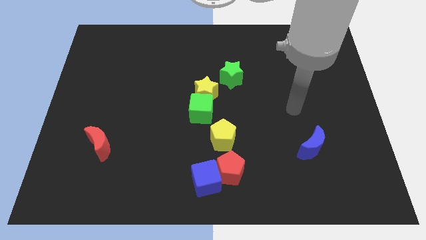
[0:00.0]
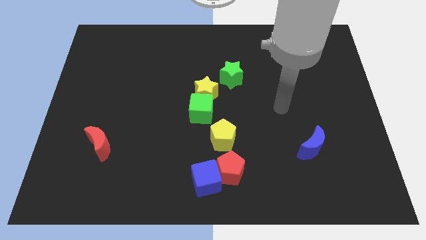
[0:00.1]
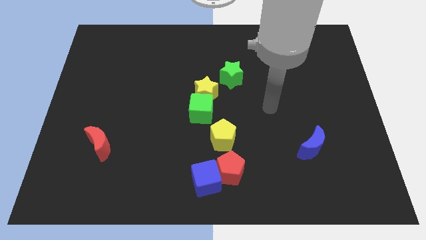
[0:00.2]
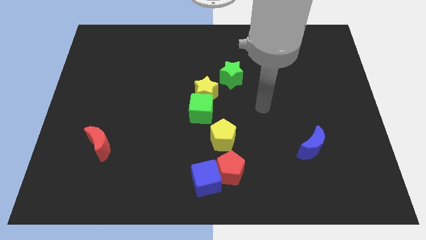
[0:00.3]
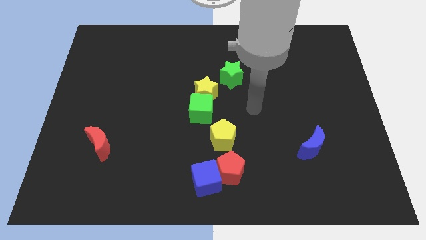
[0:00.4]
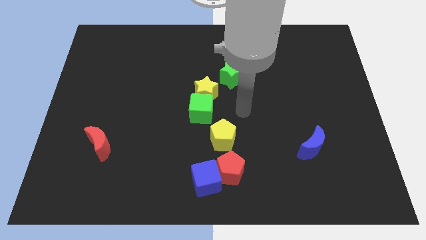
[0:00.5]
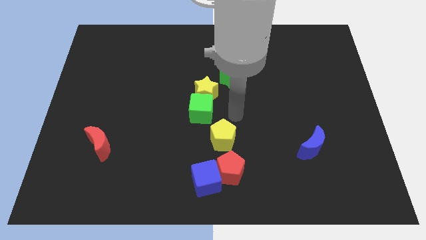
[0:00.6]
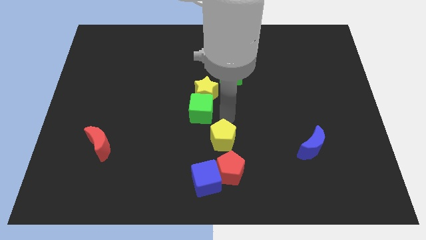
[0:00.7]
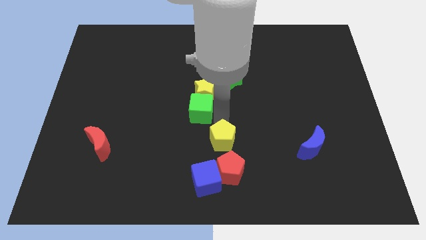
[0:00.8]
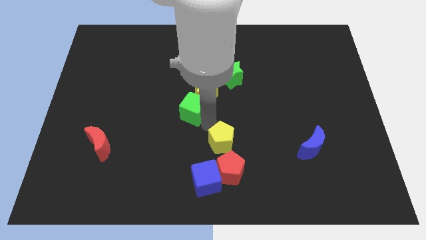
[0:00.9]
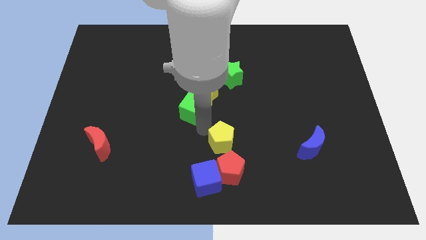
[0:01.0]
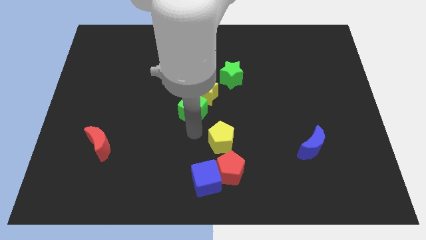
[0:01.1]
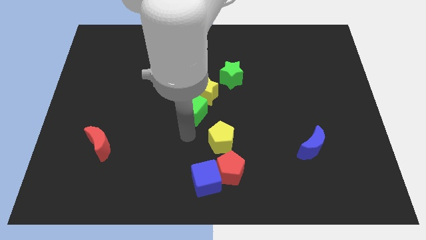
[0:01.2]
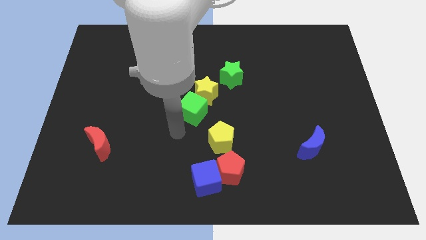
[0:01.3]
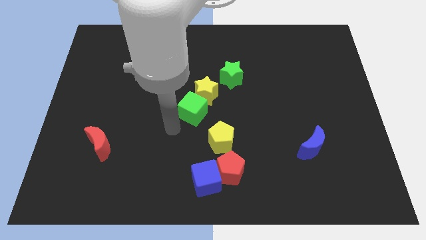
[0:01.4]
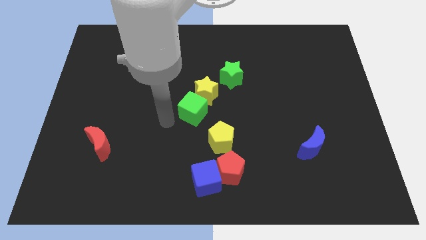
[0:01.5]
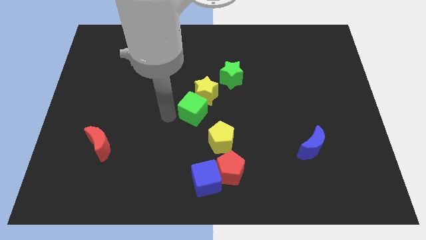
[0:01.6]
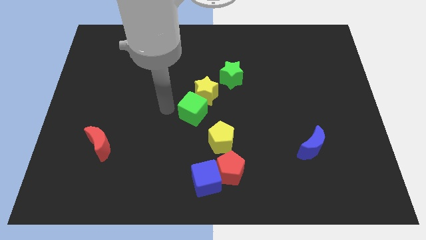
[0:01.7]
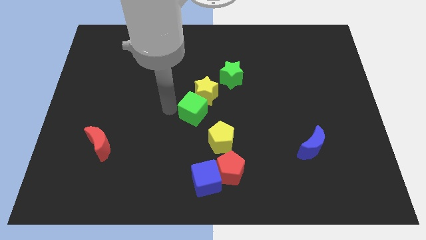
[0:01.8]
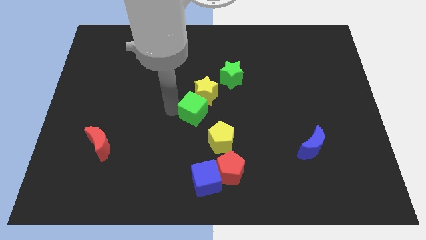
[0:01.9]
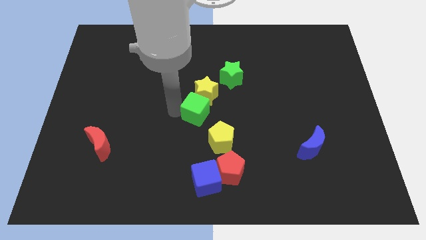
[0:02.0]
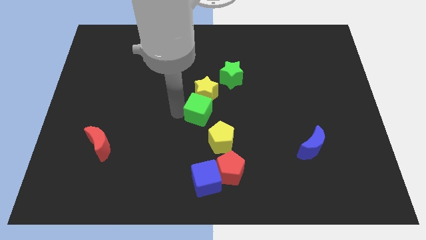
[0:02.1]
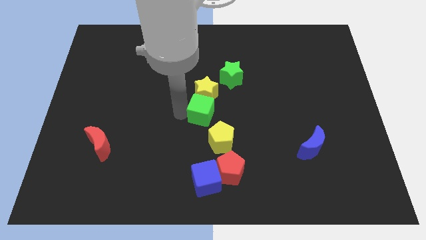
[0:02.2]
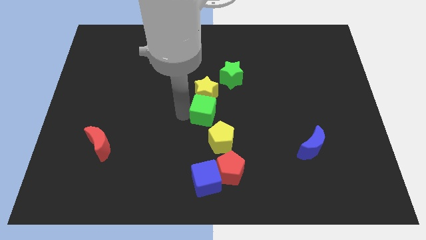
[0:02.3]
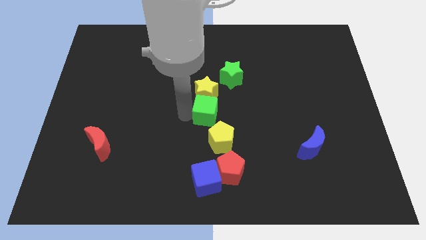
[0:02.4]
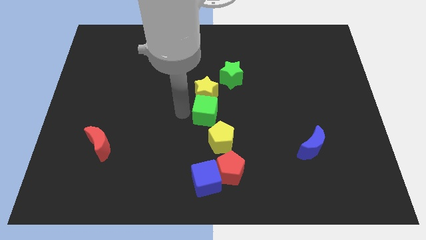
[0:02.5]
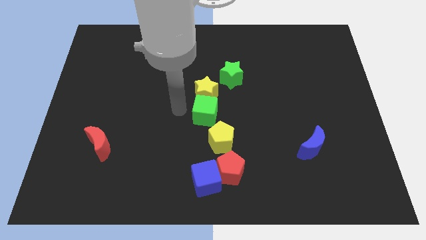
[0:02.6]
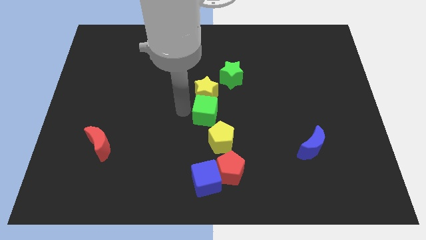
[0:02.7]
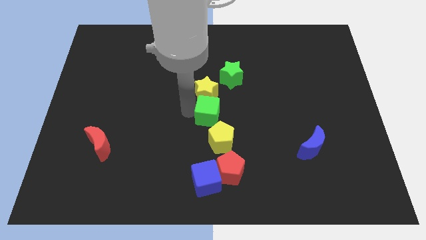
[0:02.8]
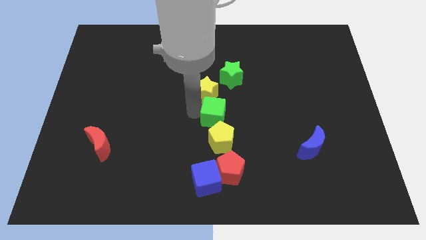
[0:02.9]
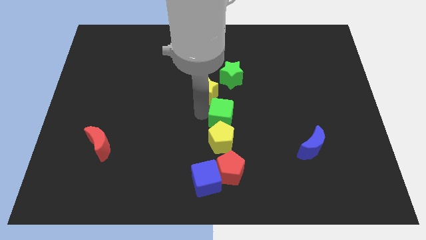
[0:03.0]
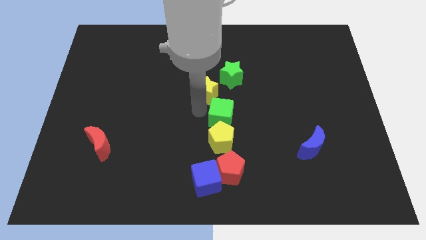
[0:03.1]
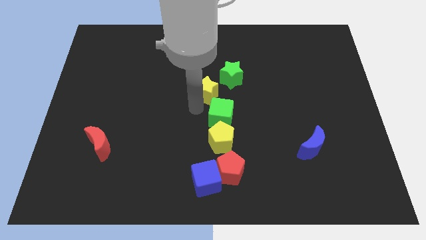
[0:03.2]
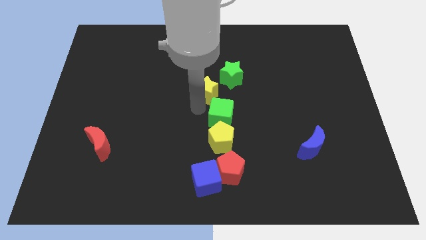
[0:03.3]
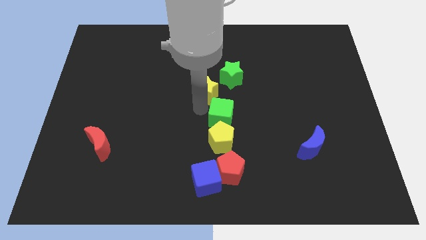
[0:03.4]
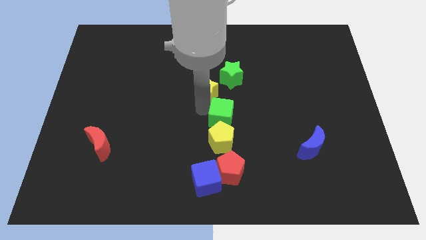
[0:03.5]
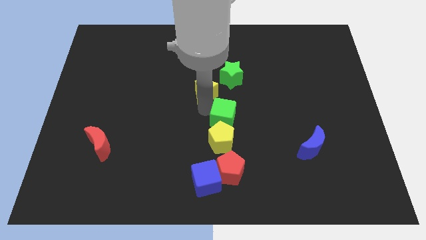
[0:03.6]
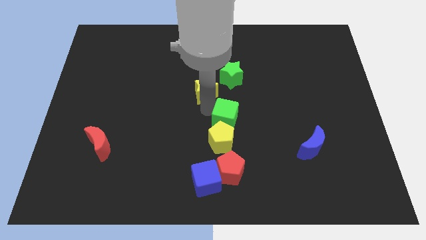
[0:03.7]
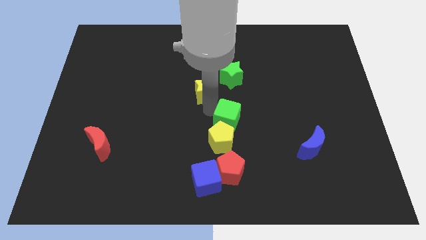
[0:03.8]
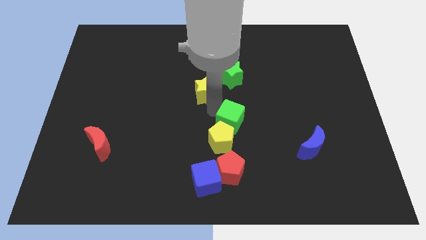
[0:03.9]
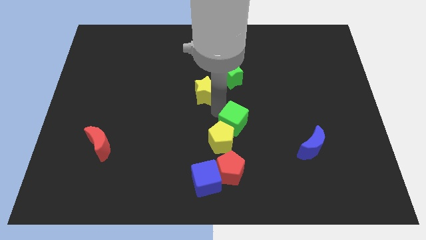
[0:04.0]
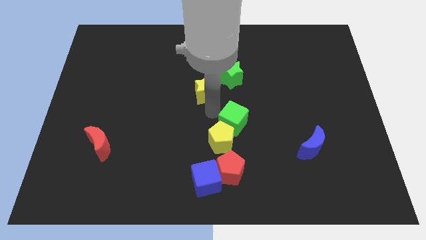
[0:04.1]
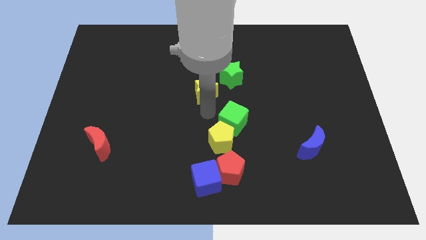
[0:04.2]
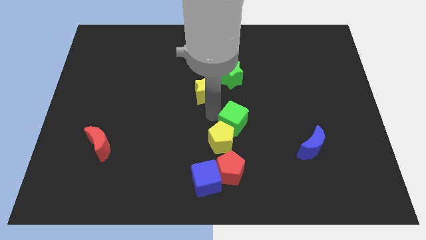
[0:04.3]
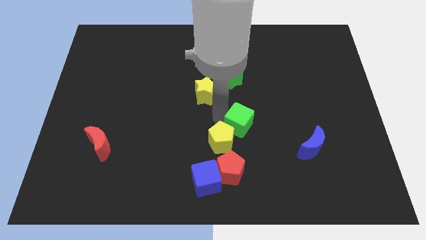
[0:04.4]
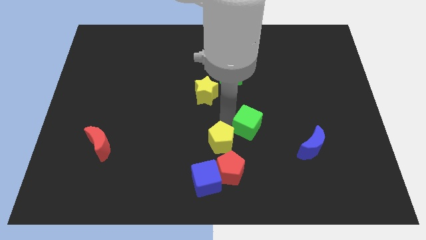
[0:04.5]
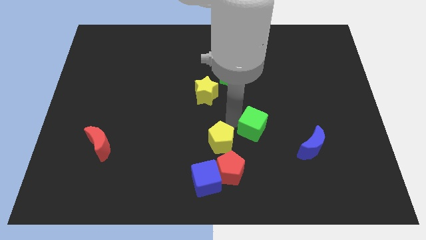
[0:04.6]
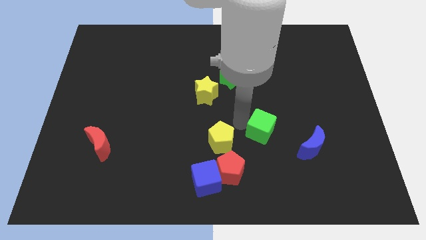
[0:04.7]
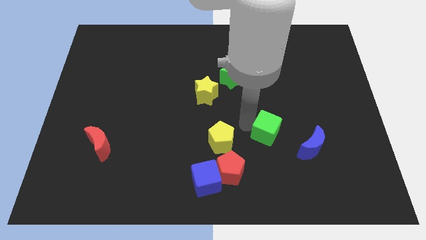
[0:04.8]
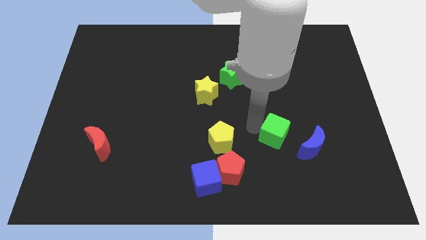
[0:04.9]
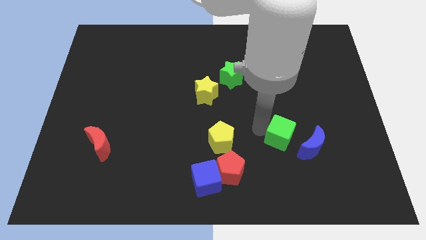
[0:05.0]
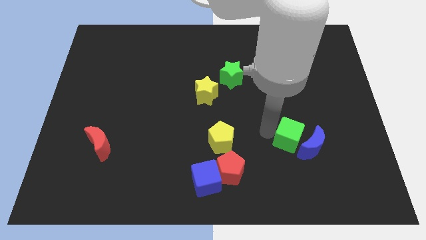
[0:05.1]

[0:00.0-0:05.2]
put the green cube to the blue moon

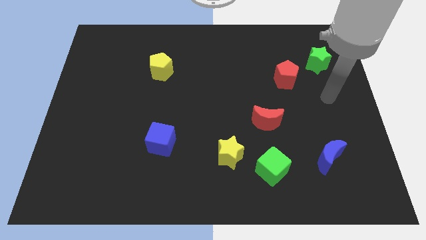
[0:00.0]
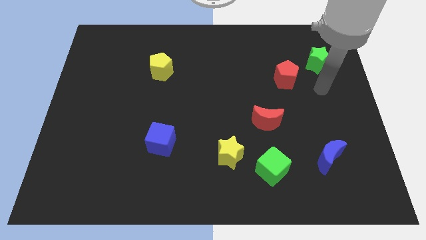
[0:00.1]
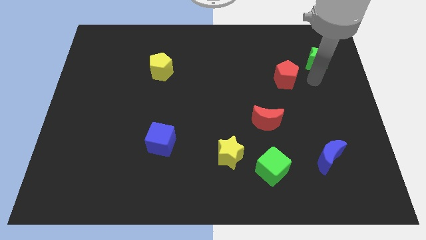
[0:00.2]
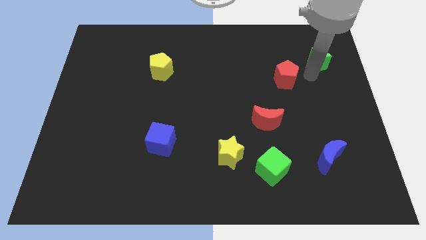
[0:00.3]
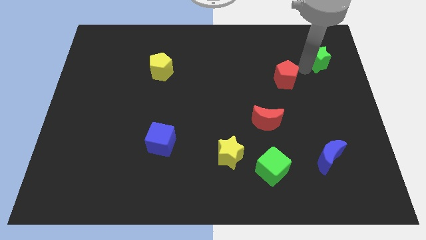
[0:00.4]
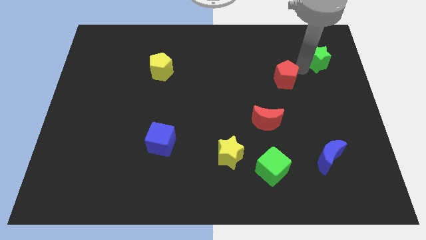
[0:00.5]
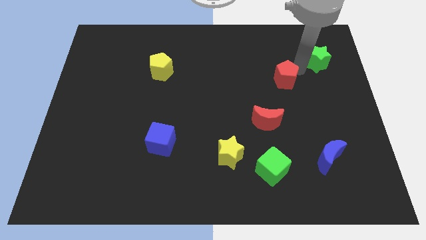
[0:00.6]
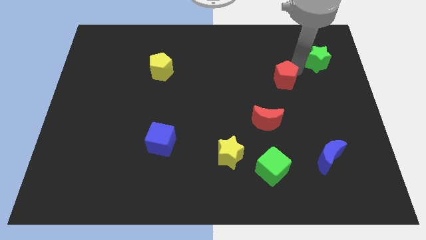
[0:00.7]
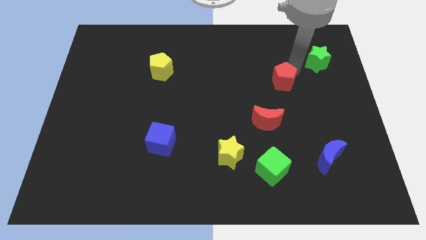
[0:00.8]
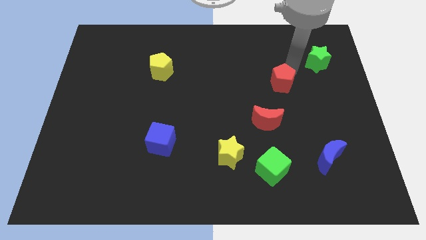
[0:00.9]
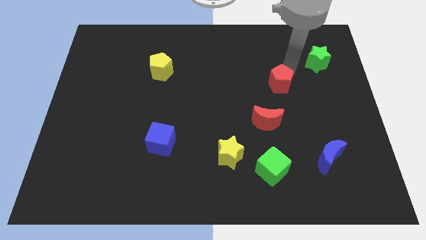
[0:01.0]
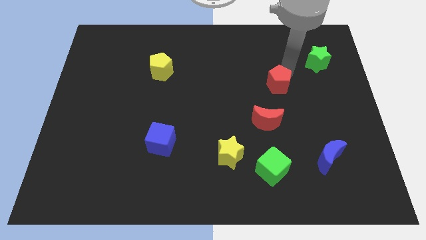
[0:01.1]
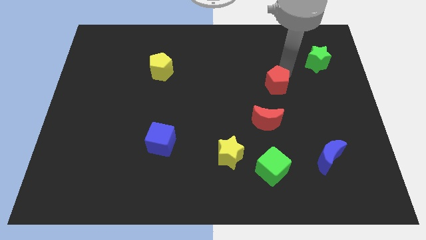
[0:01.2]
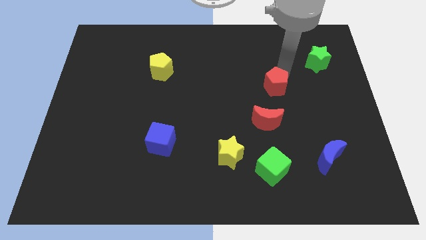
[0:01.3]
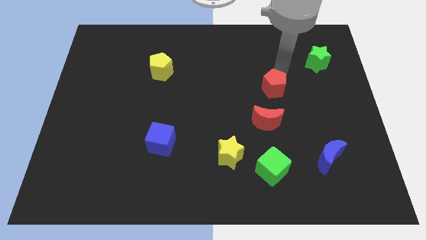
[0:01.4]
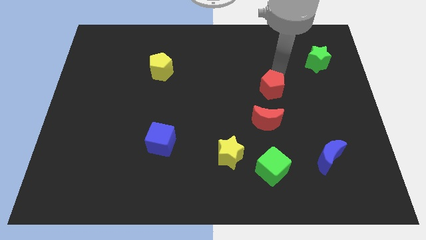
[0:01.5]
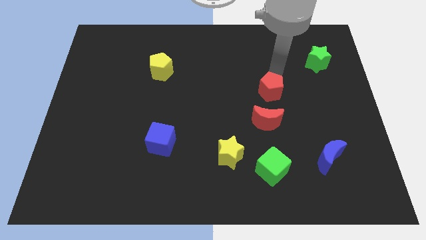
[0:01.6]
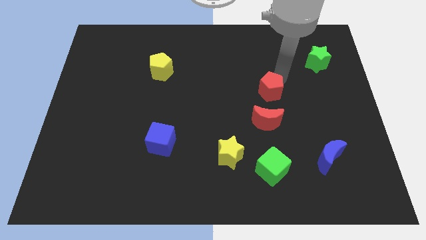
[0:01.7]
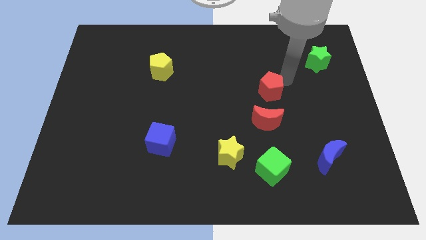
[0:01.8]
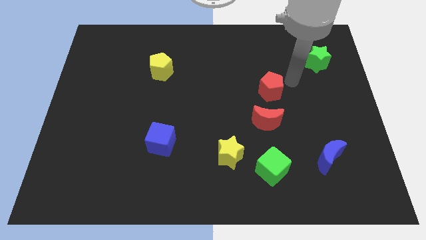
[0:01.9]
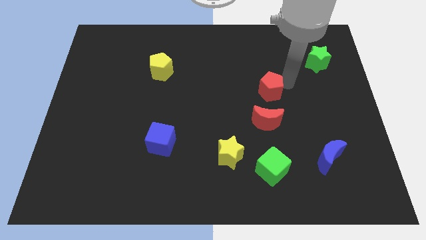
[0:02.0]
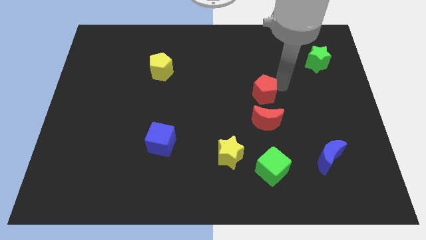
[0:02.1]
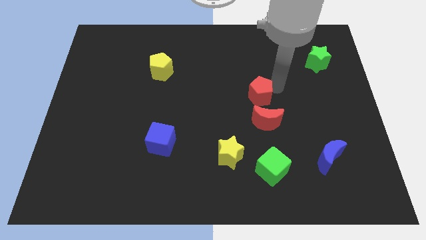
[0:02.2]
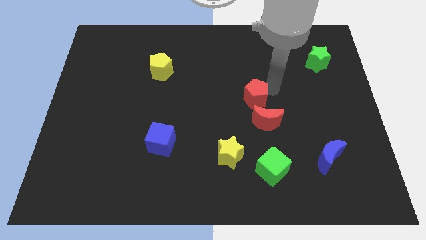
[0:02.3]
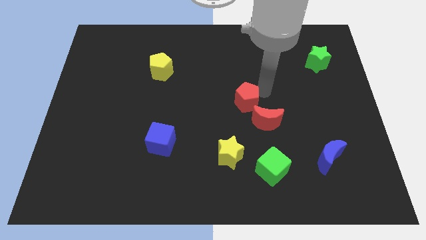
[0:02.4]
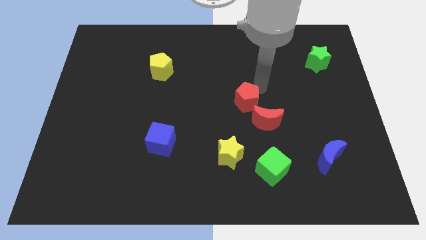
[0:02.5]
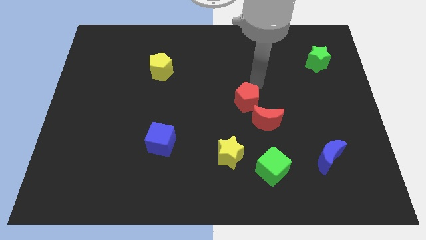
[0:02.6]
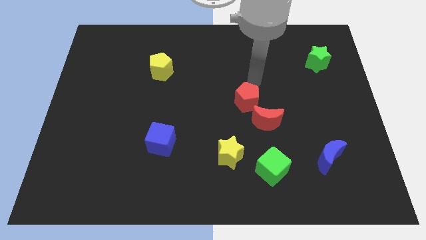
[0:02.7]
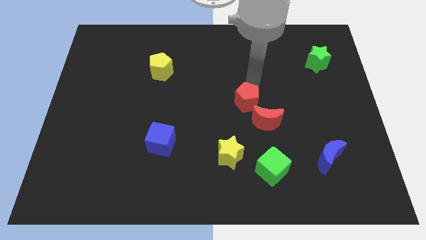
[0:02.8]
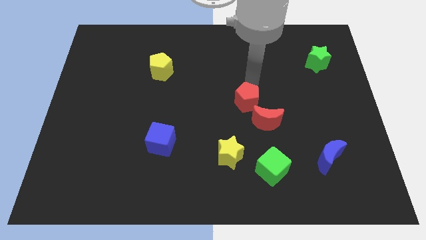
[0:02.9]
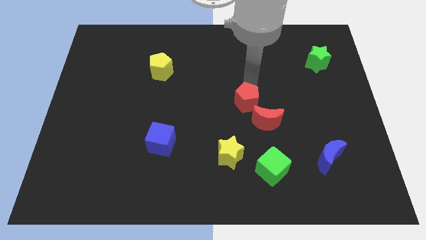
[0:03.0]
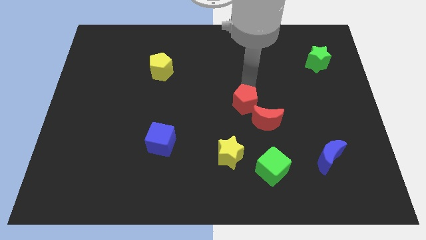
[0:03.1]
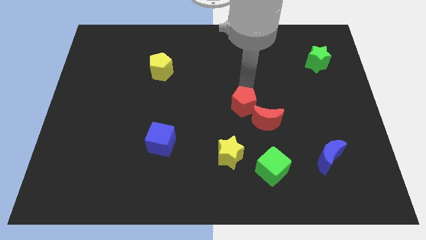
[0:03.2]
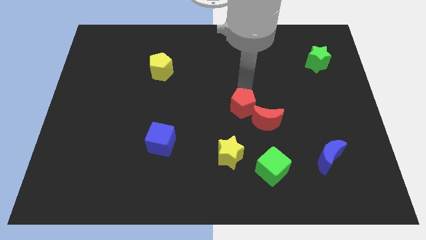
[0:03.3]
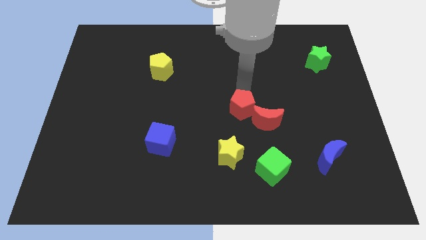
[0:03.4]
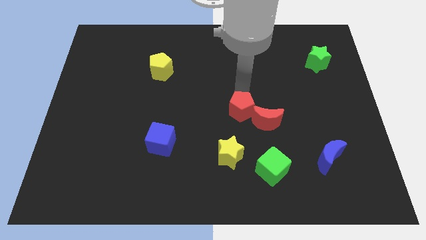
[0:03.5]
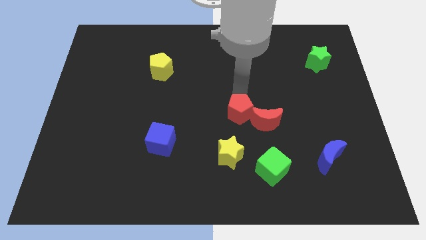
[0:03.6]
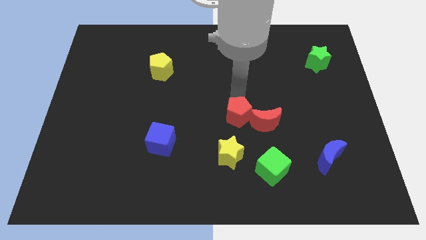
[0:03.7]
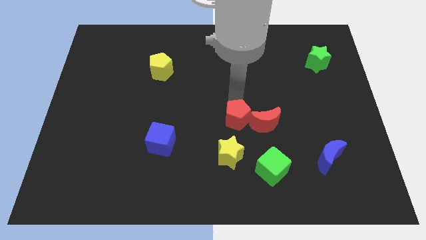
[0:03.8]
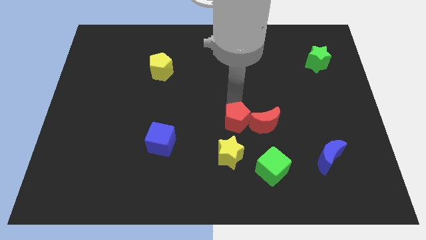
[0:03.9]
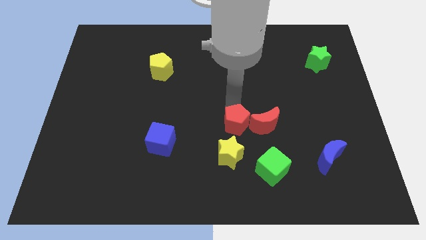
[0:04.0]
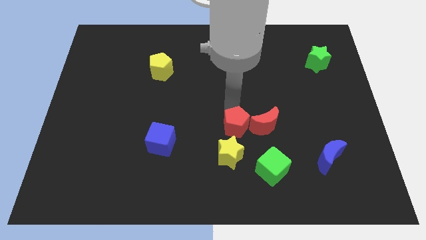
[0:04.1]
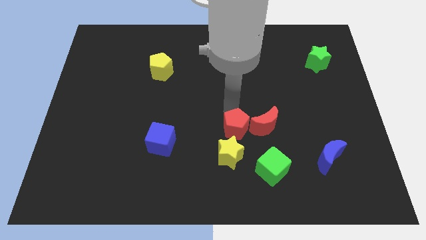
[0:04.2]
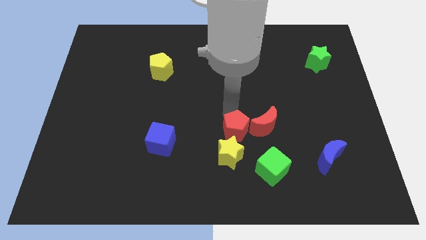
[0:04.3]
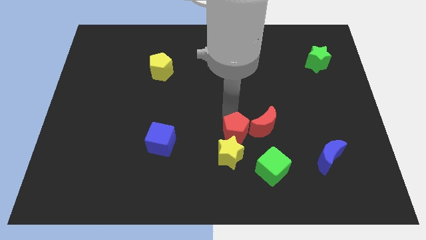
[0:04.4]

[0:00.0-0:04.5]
push the red pentagon to the yellow star
